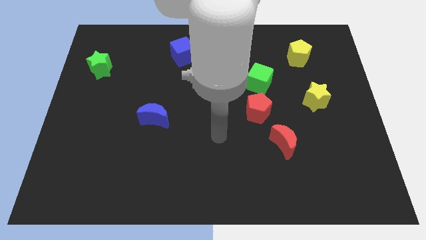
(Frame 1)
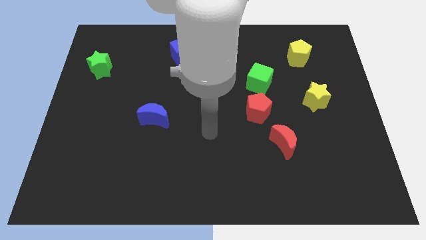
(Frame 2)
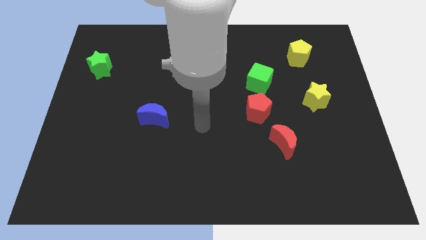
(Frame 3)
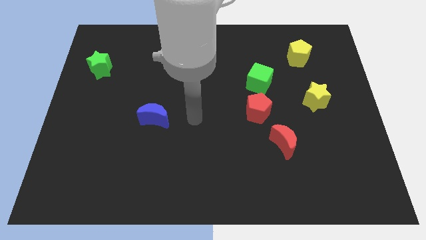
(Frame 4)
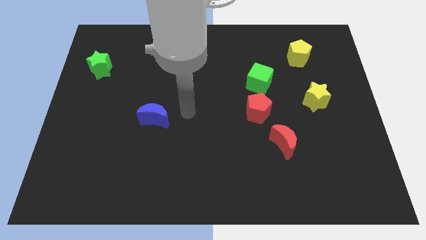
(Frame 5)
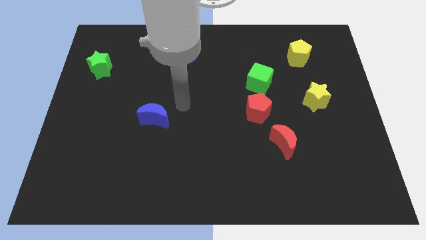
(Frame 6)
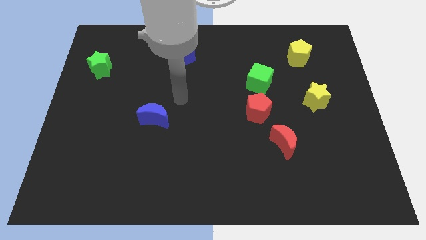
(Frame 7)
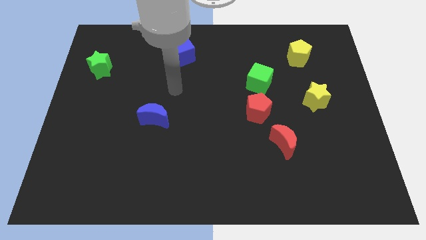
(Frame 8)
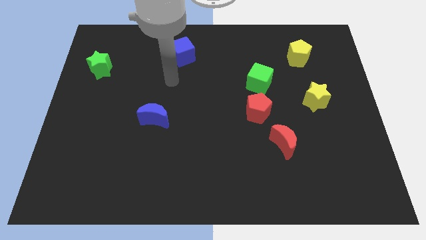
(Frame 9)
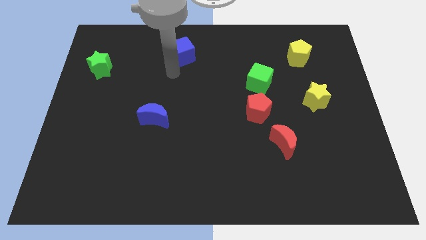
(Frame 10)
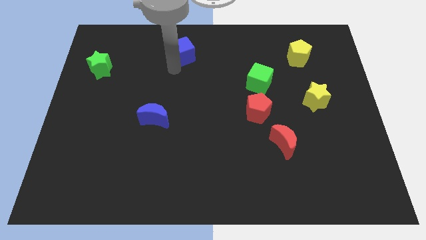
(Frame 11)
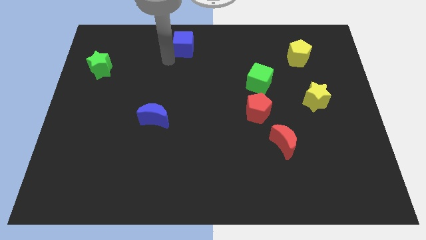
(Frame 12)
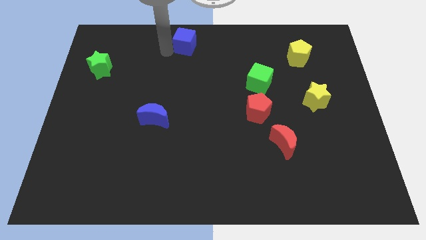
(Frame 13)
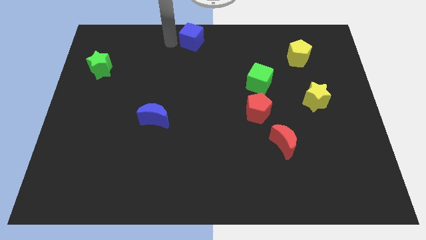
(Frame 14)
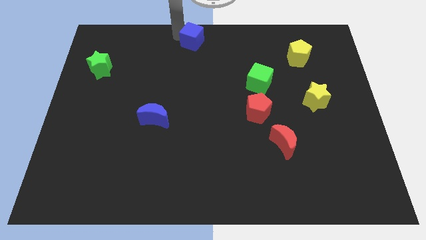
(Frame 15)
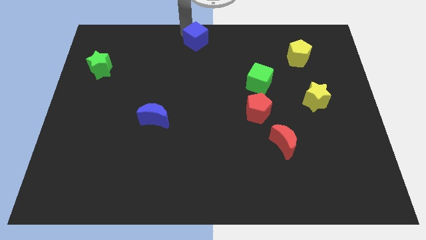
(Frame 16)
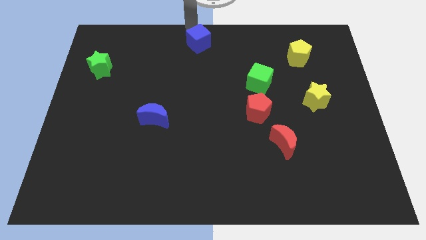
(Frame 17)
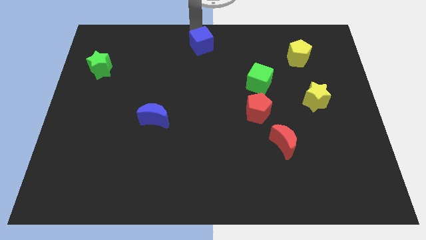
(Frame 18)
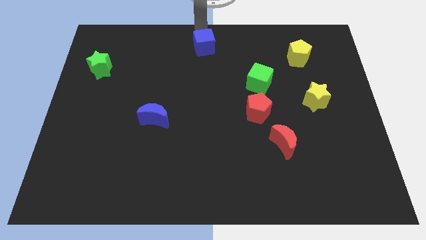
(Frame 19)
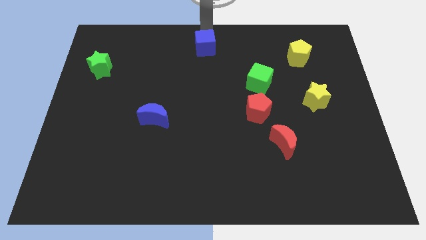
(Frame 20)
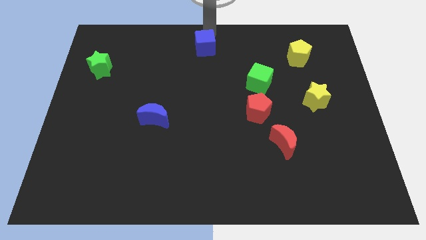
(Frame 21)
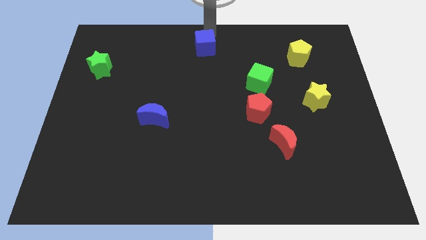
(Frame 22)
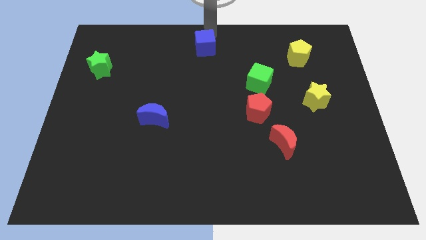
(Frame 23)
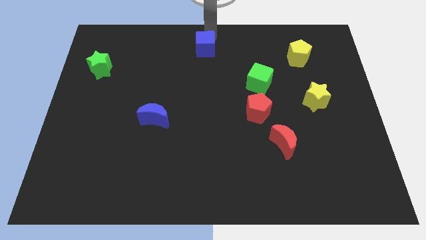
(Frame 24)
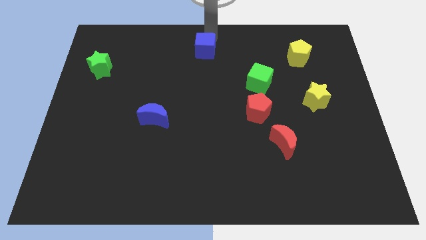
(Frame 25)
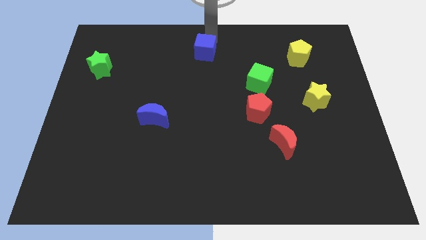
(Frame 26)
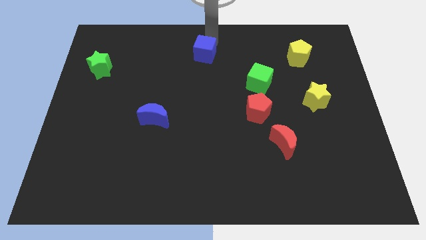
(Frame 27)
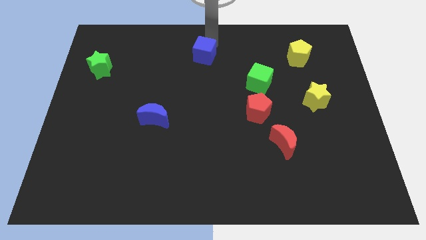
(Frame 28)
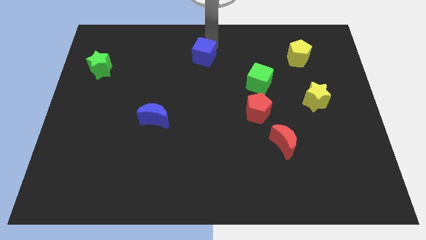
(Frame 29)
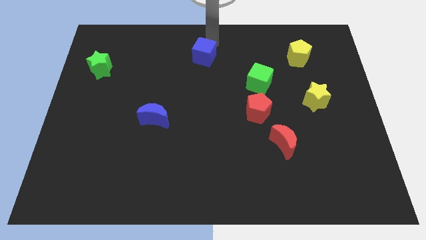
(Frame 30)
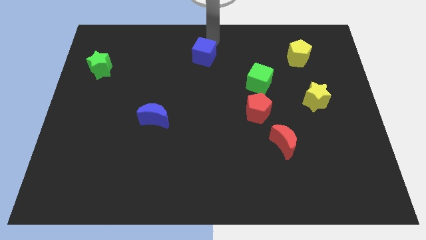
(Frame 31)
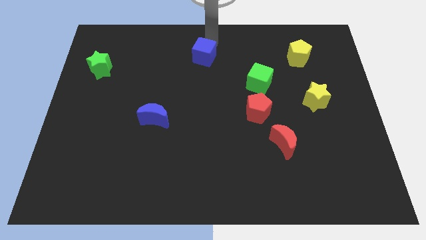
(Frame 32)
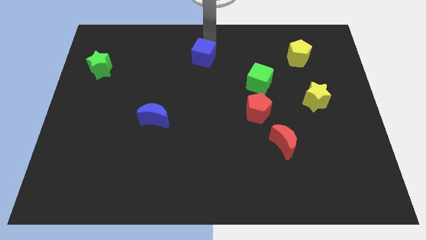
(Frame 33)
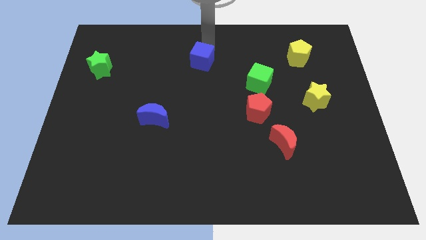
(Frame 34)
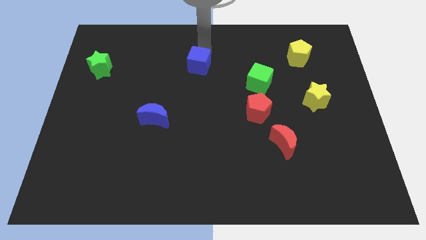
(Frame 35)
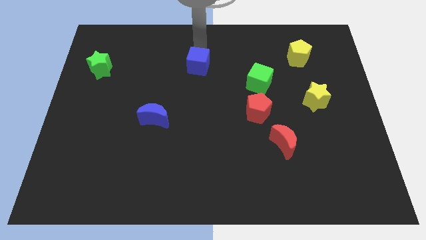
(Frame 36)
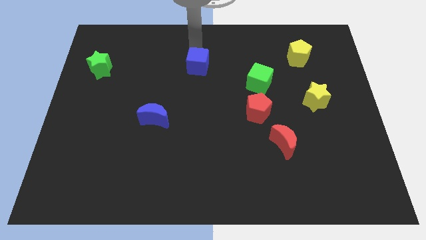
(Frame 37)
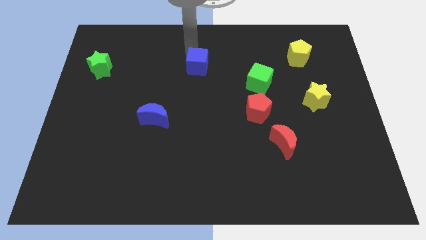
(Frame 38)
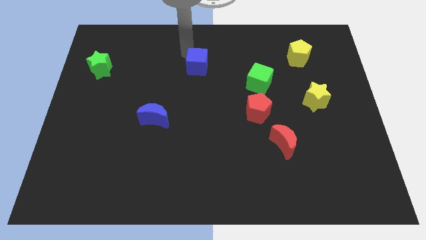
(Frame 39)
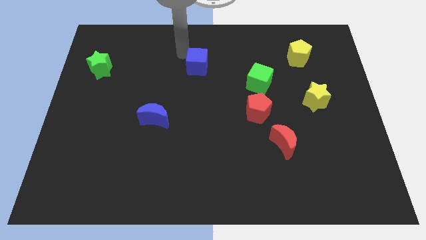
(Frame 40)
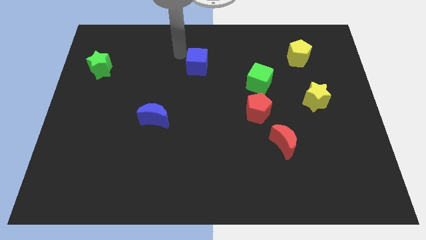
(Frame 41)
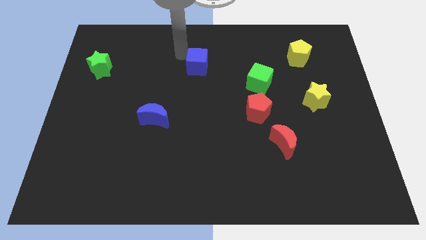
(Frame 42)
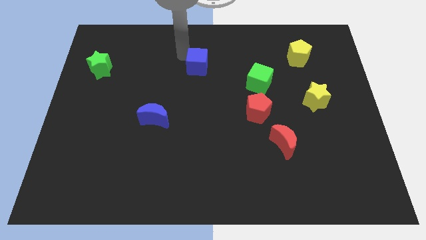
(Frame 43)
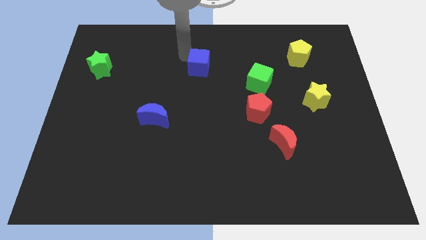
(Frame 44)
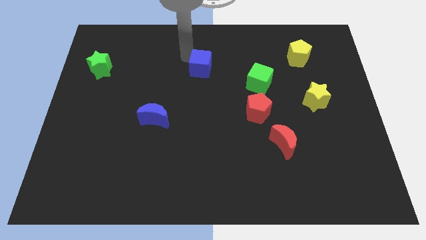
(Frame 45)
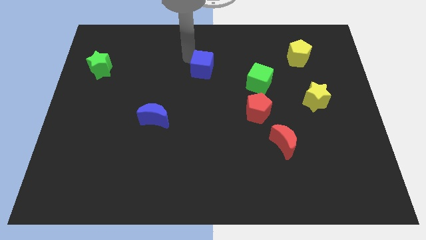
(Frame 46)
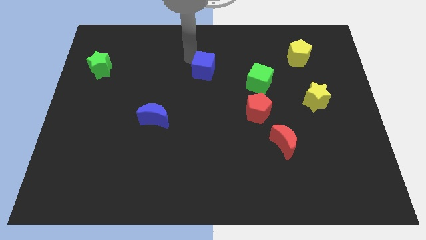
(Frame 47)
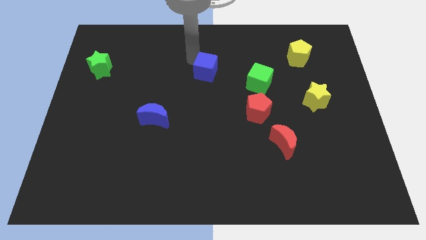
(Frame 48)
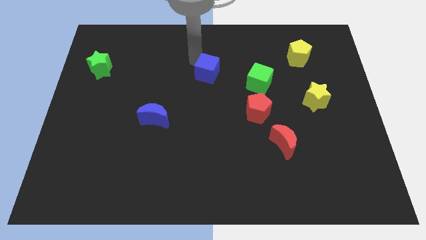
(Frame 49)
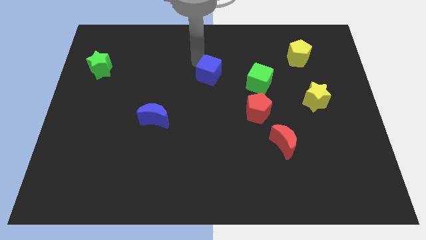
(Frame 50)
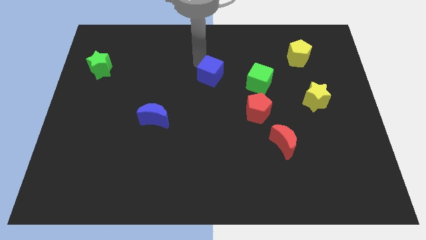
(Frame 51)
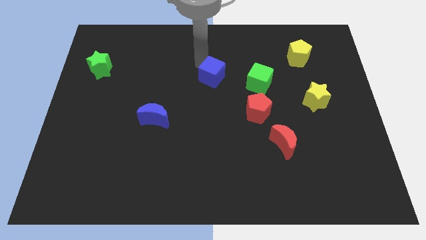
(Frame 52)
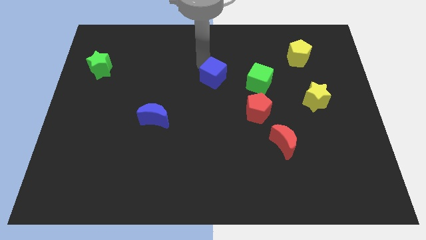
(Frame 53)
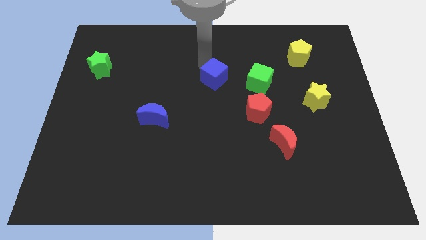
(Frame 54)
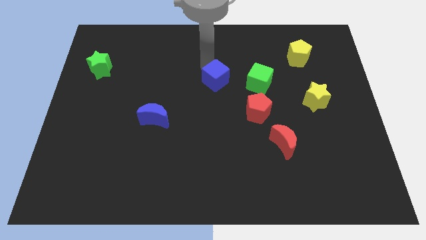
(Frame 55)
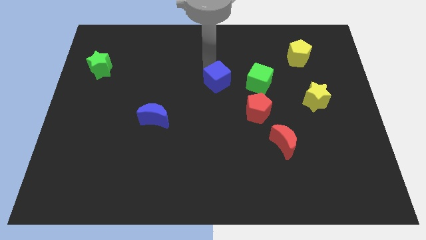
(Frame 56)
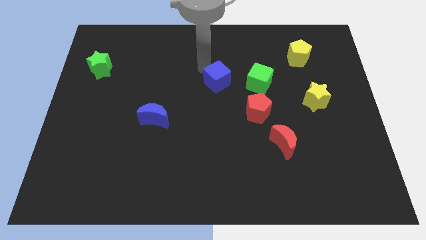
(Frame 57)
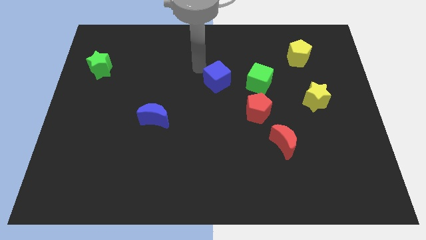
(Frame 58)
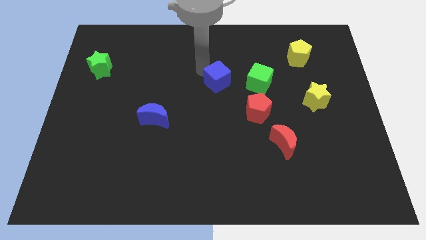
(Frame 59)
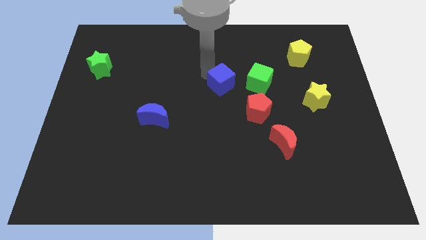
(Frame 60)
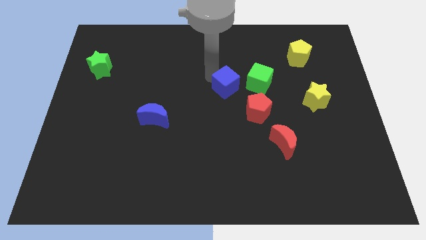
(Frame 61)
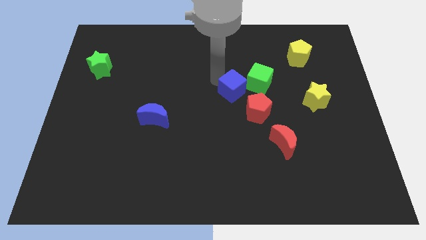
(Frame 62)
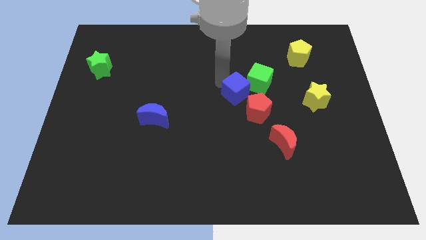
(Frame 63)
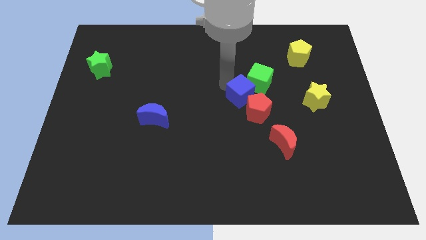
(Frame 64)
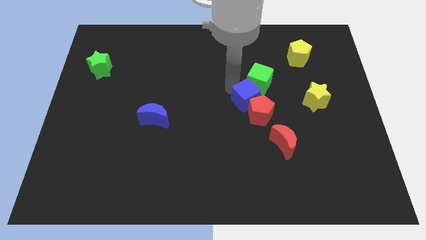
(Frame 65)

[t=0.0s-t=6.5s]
push the blue cube towards the red pentagon

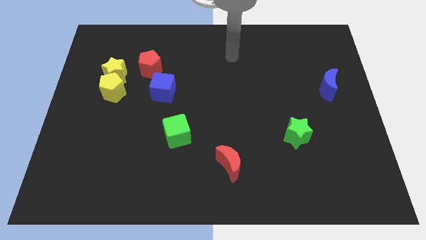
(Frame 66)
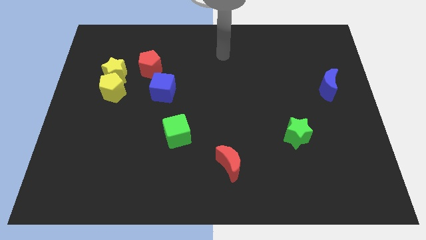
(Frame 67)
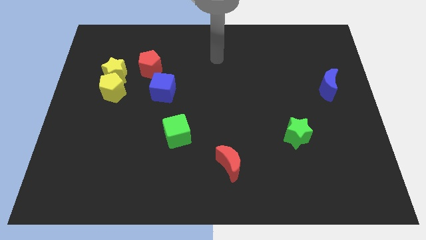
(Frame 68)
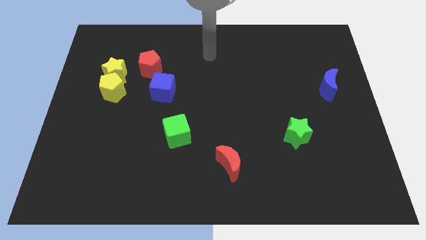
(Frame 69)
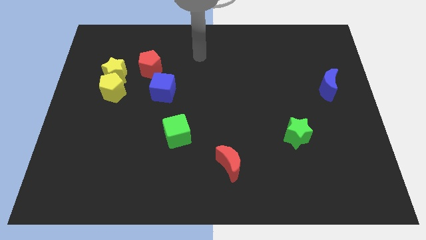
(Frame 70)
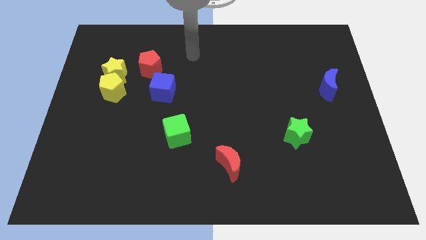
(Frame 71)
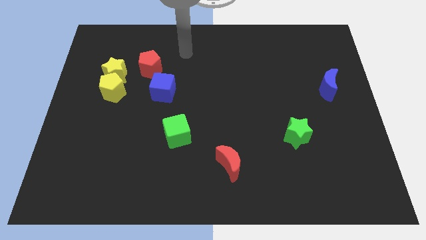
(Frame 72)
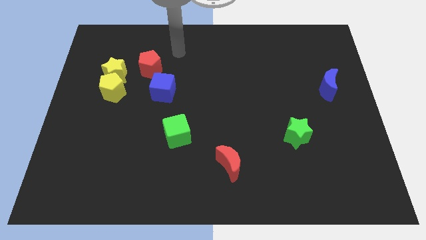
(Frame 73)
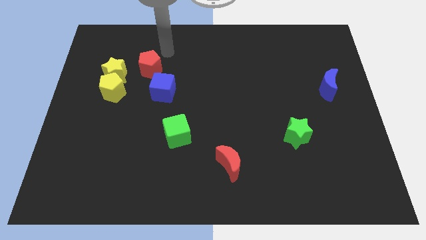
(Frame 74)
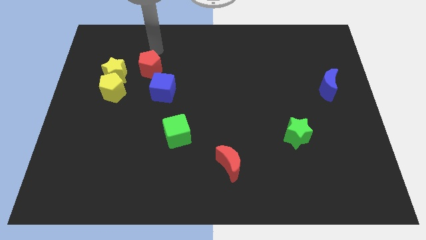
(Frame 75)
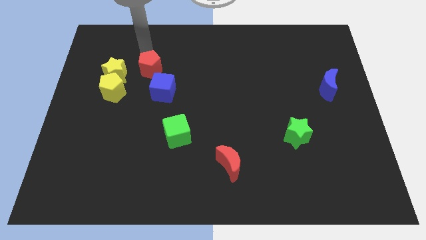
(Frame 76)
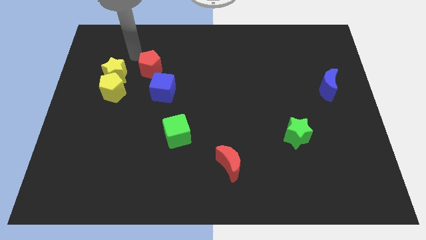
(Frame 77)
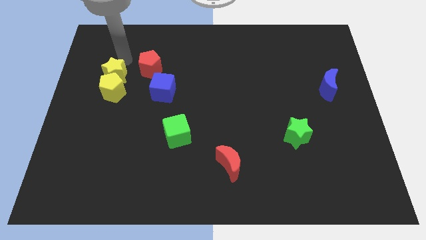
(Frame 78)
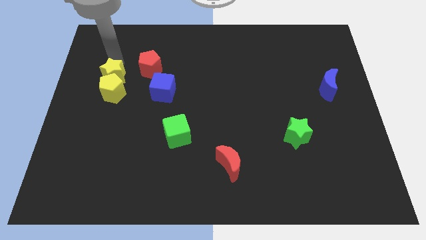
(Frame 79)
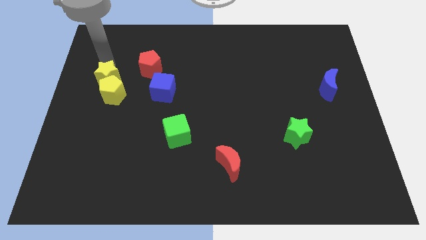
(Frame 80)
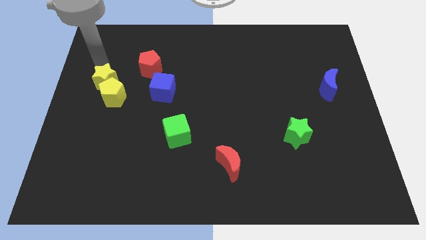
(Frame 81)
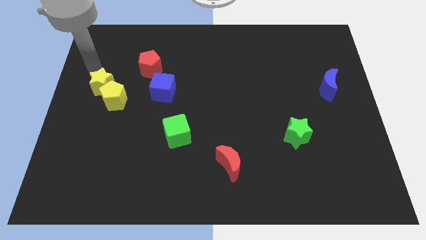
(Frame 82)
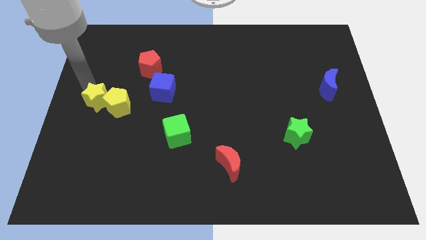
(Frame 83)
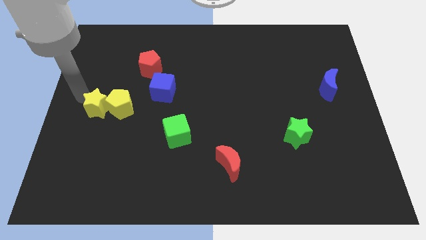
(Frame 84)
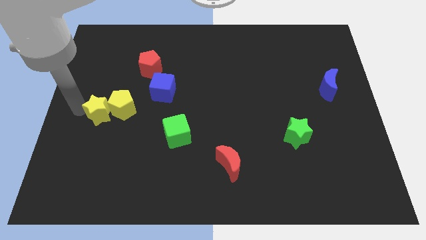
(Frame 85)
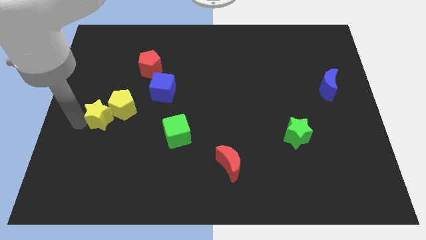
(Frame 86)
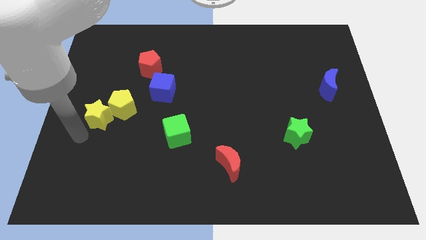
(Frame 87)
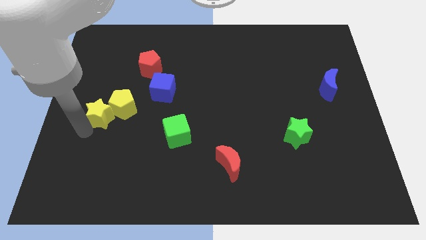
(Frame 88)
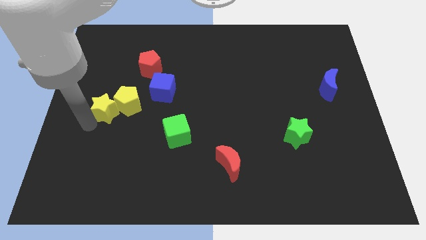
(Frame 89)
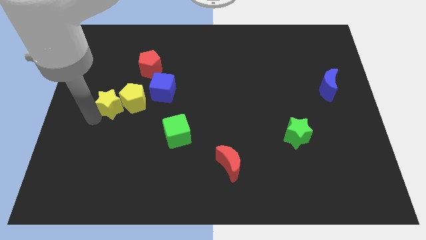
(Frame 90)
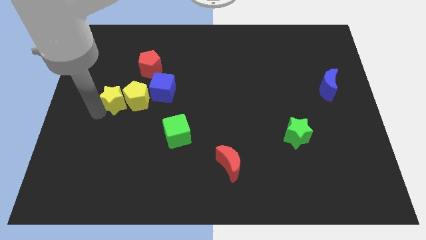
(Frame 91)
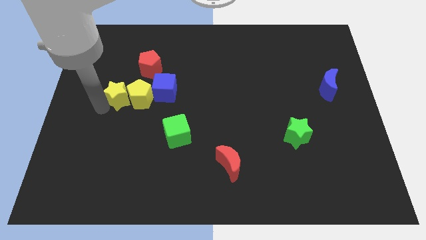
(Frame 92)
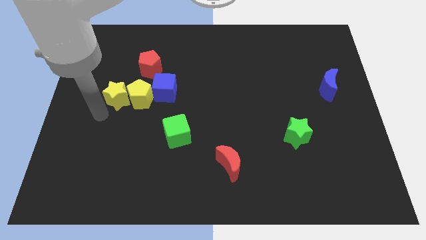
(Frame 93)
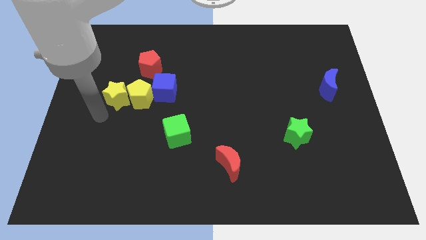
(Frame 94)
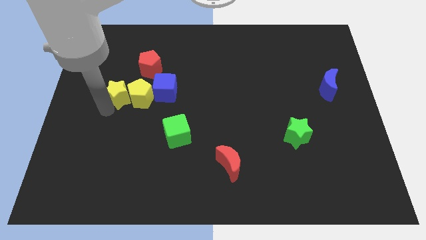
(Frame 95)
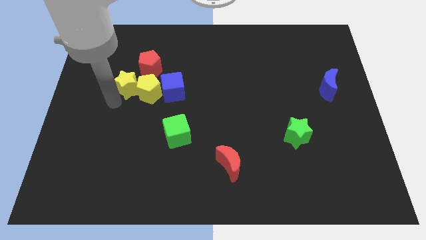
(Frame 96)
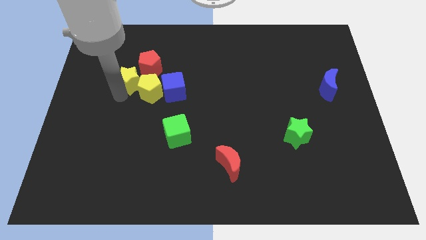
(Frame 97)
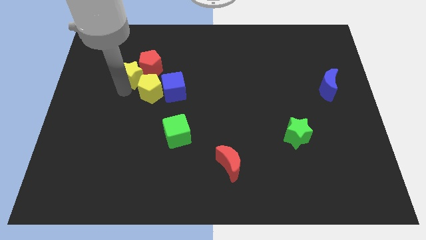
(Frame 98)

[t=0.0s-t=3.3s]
slide the yellow star next to the red pentagon
